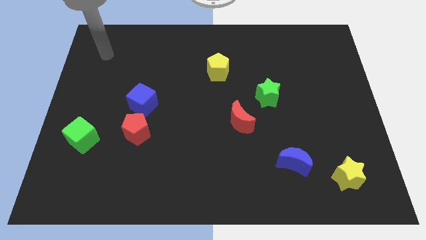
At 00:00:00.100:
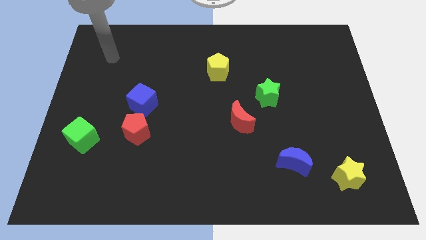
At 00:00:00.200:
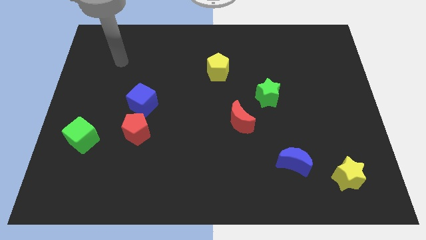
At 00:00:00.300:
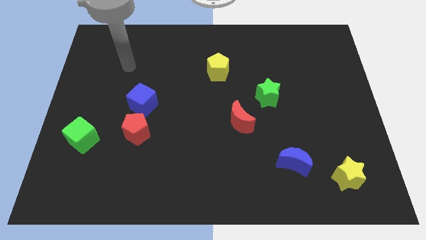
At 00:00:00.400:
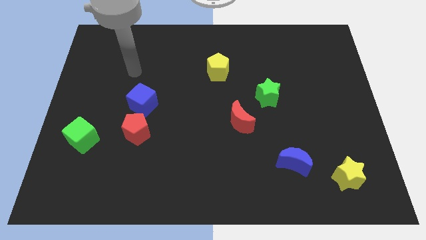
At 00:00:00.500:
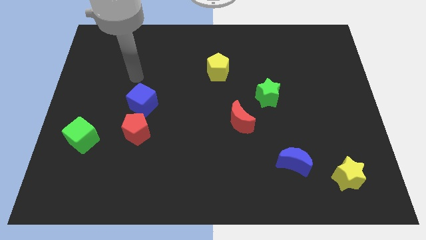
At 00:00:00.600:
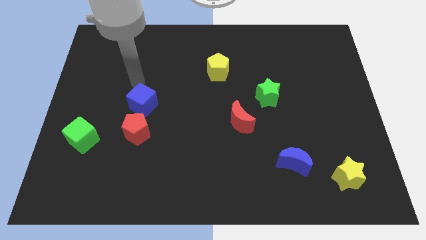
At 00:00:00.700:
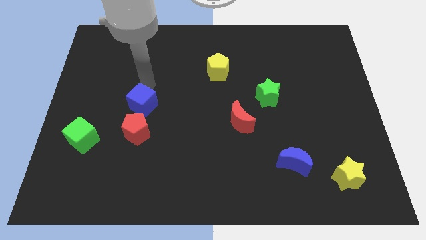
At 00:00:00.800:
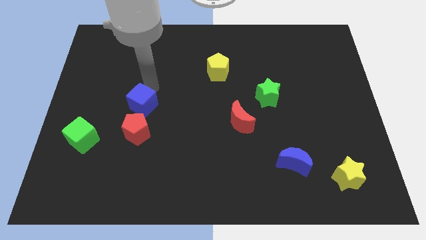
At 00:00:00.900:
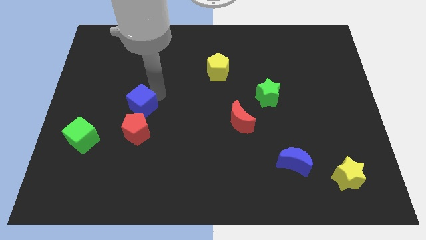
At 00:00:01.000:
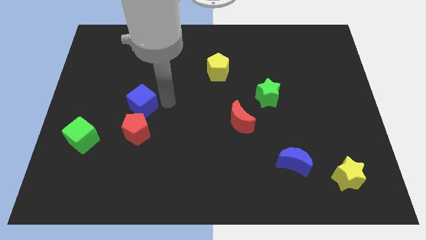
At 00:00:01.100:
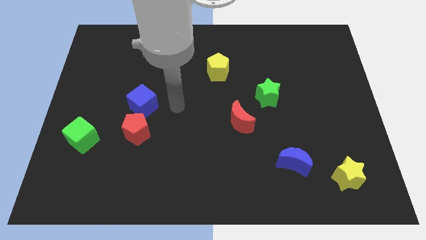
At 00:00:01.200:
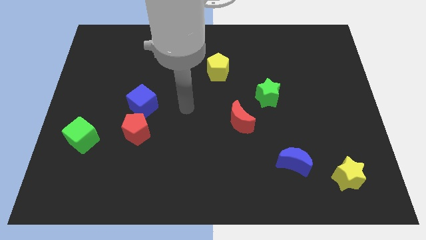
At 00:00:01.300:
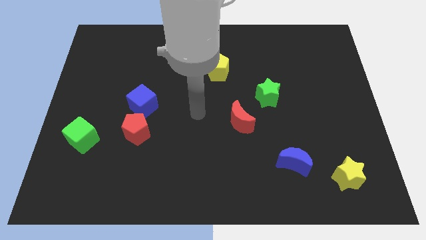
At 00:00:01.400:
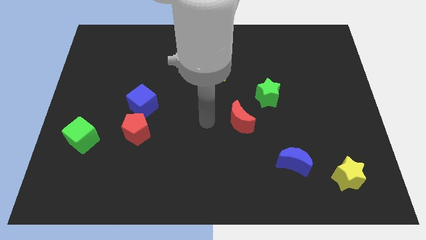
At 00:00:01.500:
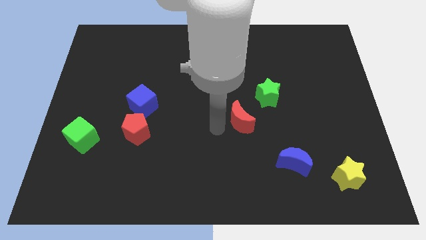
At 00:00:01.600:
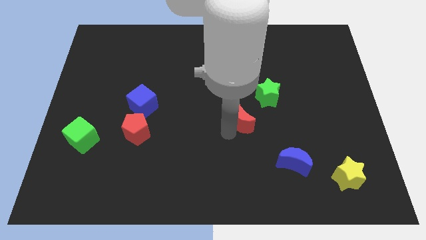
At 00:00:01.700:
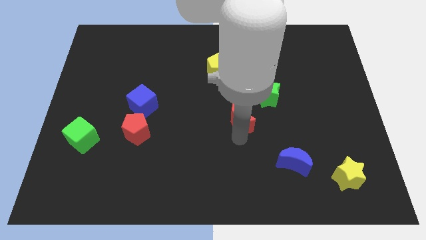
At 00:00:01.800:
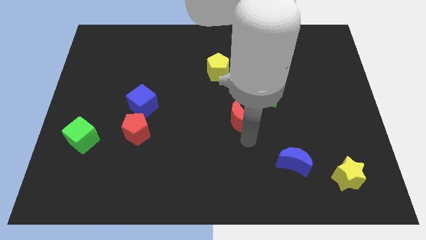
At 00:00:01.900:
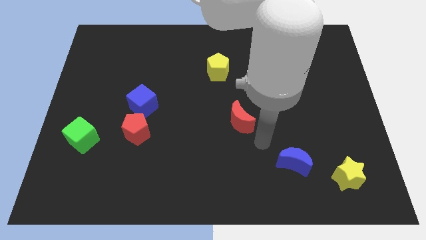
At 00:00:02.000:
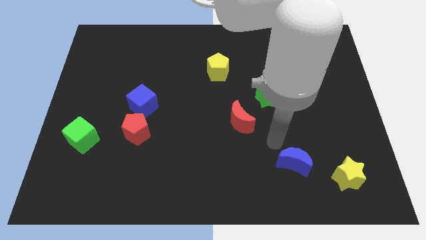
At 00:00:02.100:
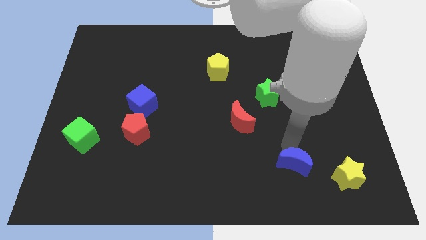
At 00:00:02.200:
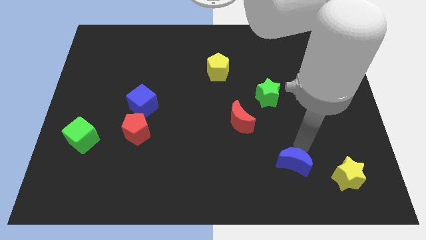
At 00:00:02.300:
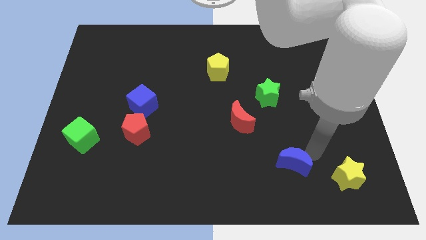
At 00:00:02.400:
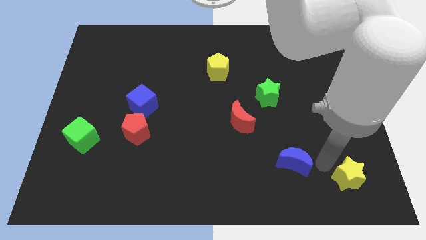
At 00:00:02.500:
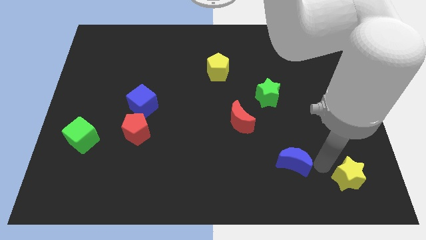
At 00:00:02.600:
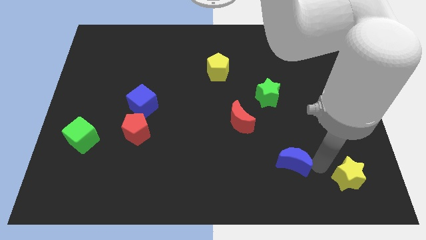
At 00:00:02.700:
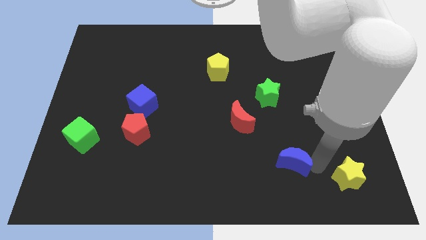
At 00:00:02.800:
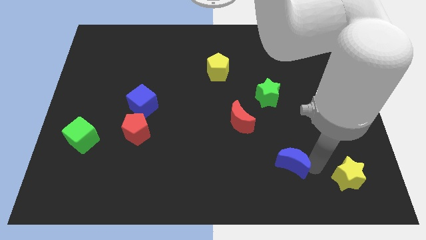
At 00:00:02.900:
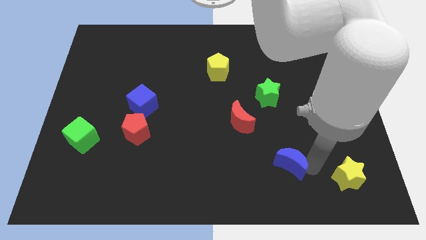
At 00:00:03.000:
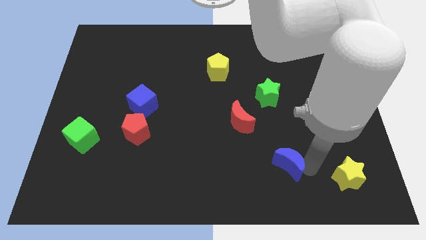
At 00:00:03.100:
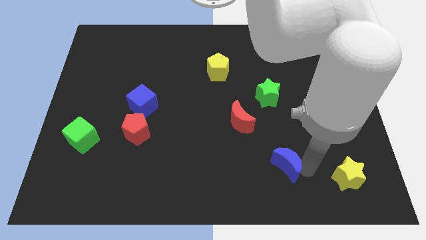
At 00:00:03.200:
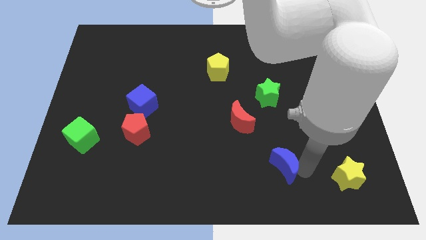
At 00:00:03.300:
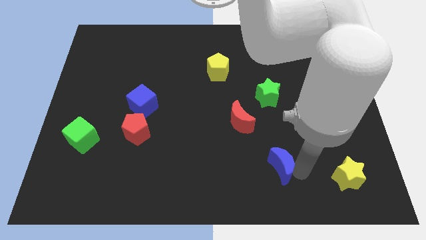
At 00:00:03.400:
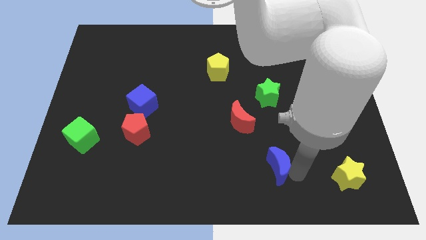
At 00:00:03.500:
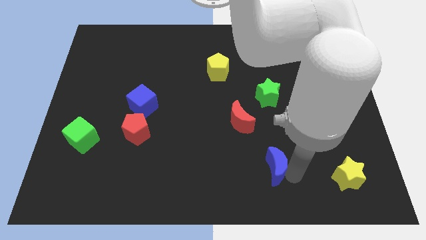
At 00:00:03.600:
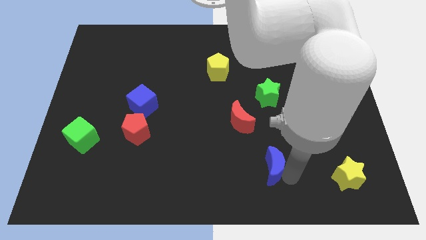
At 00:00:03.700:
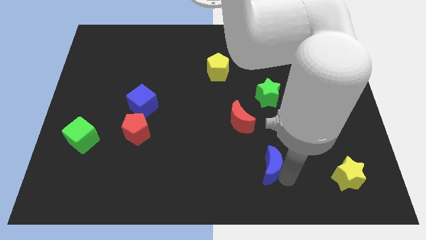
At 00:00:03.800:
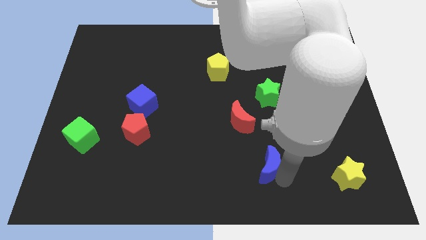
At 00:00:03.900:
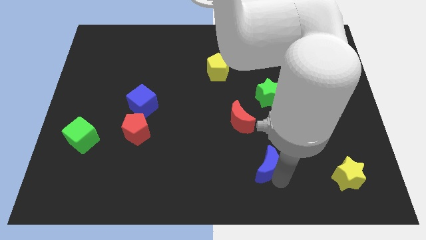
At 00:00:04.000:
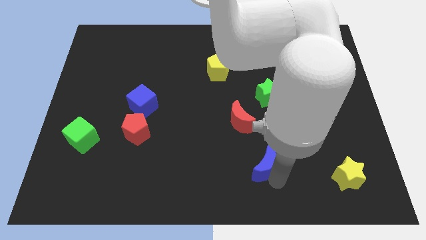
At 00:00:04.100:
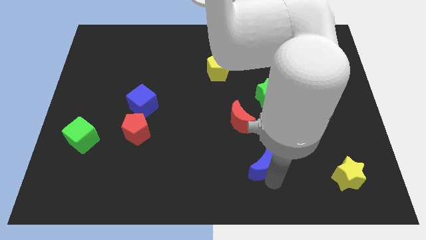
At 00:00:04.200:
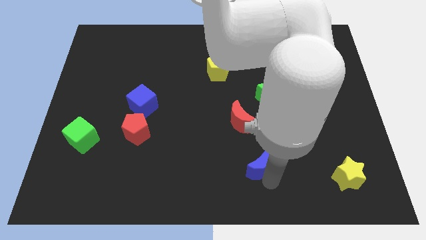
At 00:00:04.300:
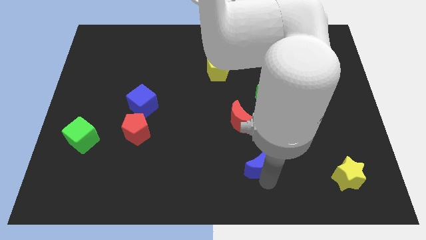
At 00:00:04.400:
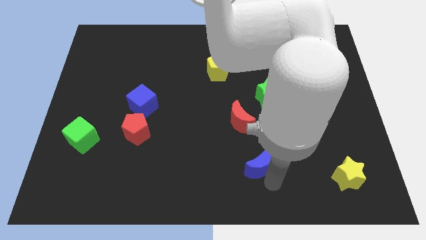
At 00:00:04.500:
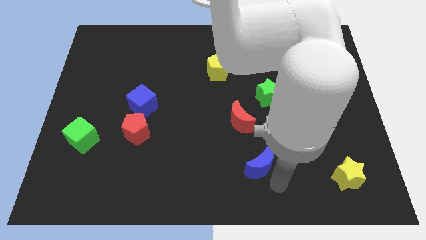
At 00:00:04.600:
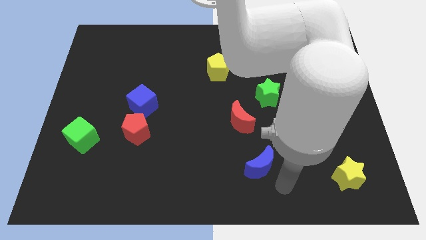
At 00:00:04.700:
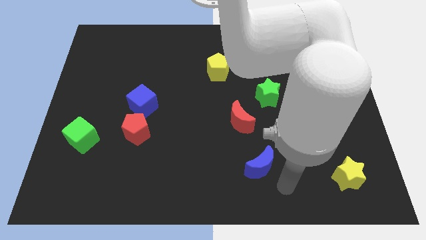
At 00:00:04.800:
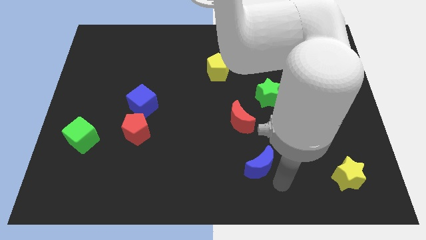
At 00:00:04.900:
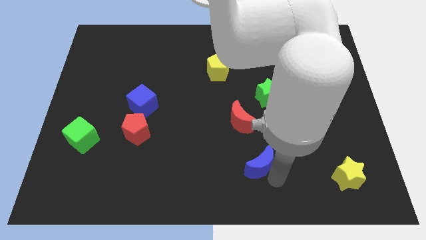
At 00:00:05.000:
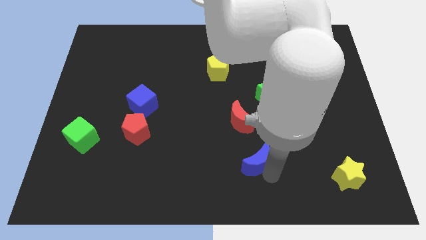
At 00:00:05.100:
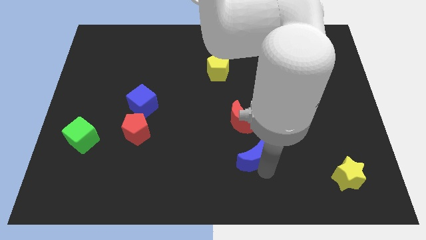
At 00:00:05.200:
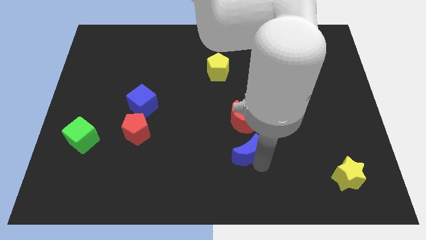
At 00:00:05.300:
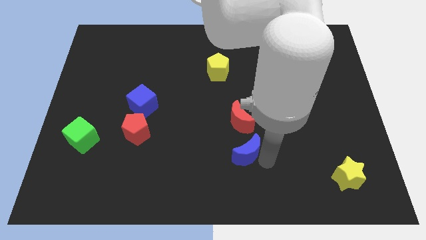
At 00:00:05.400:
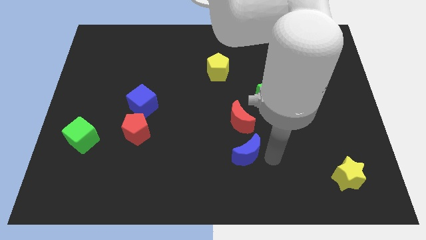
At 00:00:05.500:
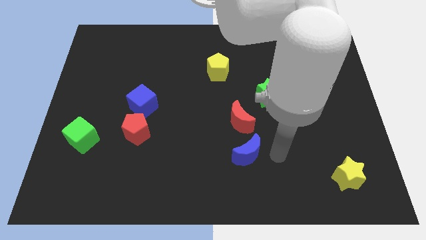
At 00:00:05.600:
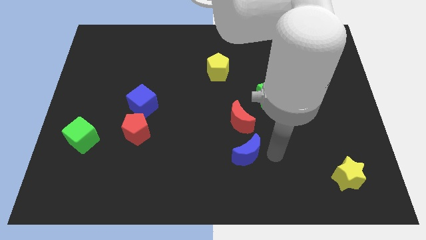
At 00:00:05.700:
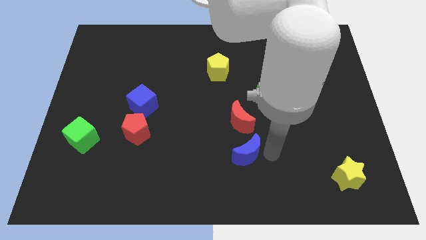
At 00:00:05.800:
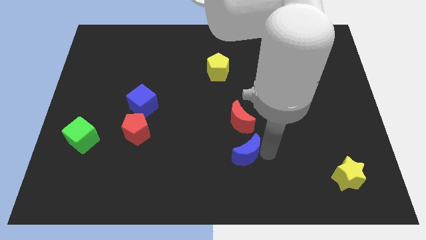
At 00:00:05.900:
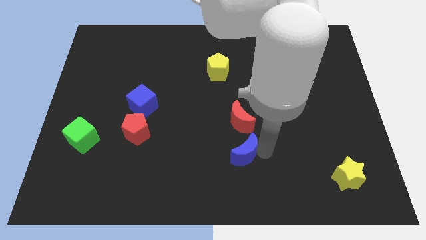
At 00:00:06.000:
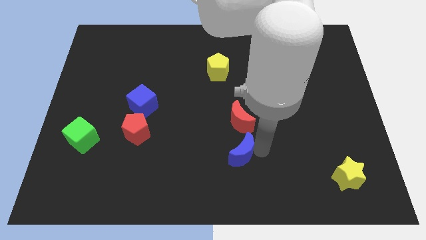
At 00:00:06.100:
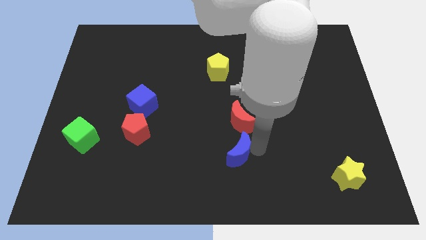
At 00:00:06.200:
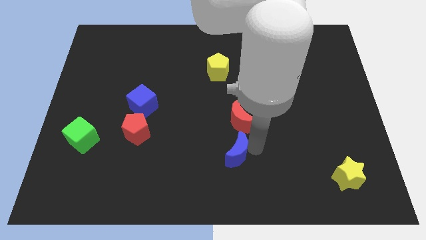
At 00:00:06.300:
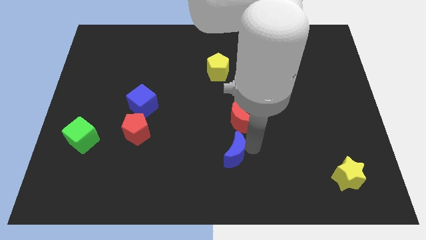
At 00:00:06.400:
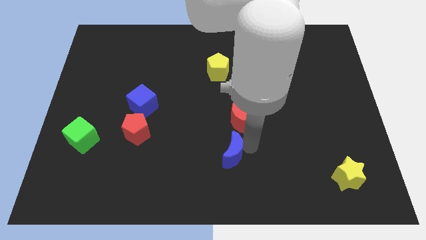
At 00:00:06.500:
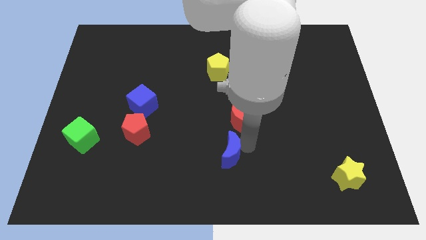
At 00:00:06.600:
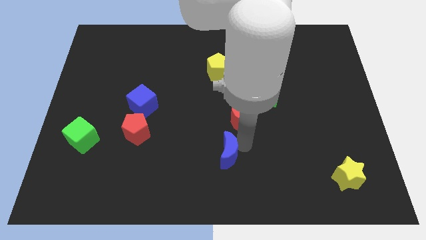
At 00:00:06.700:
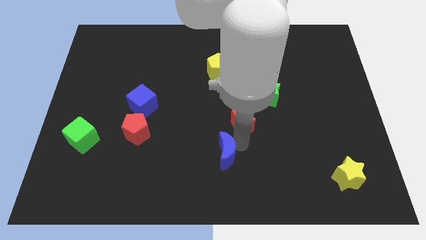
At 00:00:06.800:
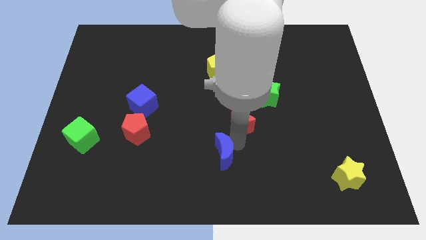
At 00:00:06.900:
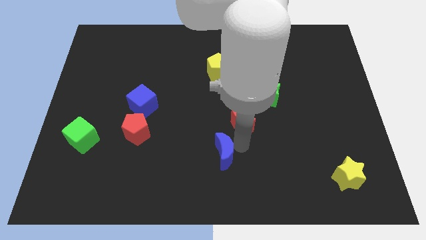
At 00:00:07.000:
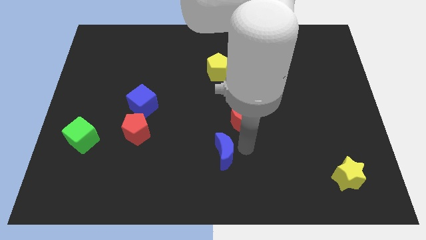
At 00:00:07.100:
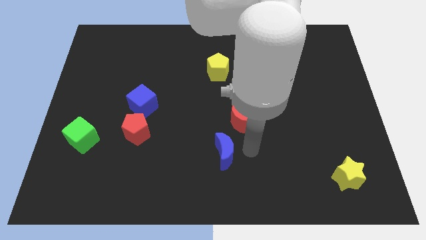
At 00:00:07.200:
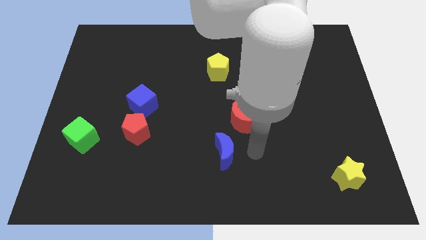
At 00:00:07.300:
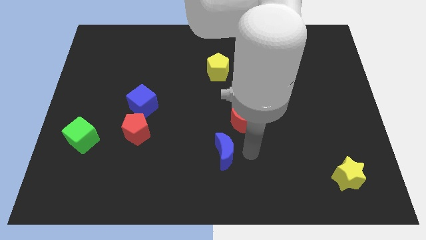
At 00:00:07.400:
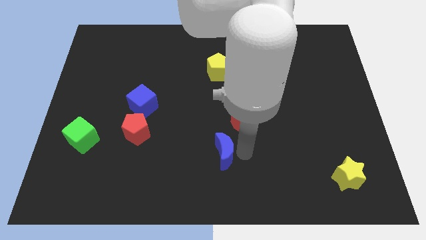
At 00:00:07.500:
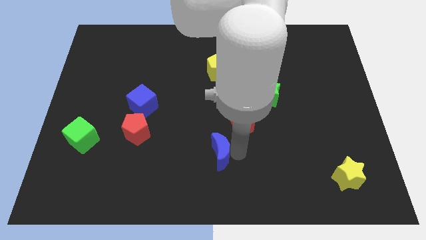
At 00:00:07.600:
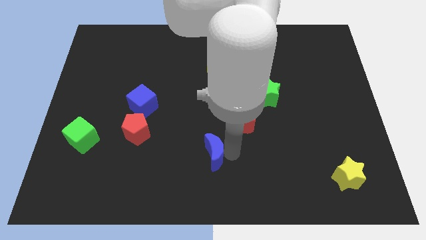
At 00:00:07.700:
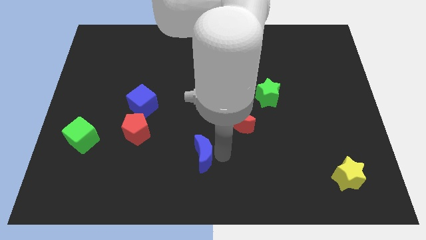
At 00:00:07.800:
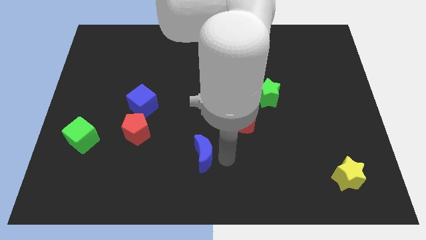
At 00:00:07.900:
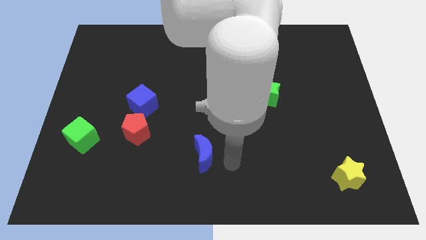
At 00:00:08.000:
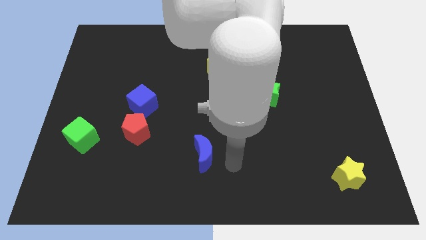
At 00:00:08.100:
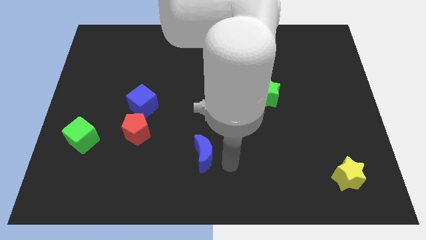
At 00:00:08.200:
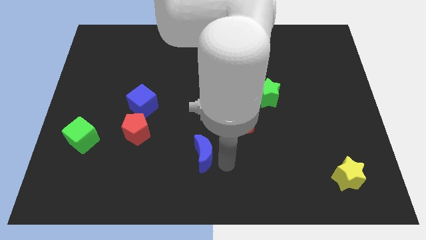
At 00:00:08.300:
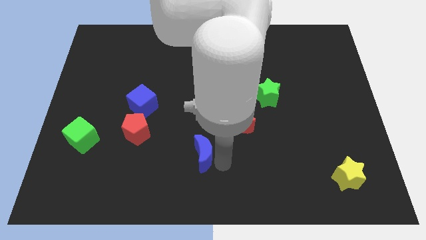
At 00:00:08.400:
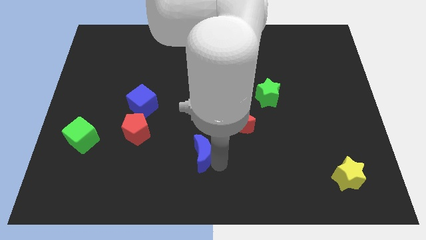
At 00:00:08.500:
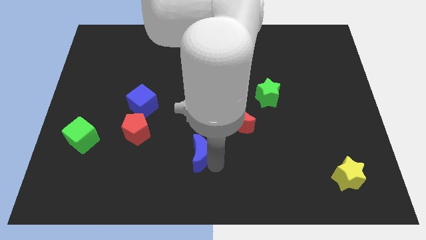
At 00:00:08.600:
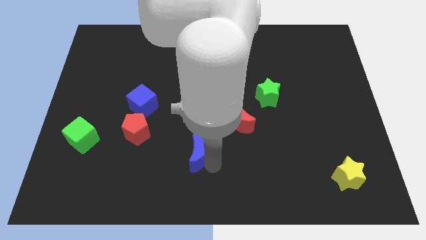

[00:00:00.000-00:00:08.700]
move the blue moon to the left
